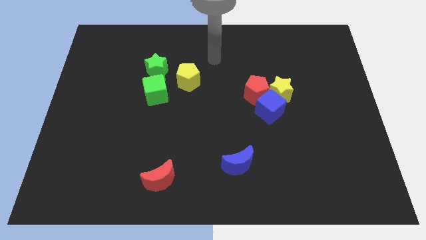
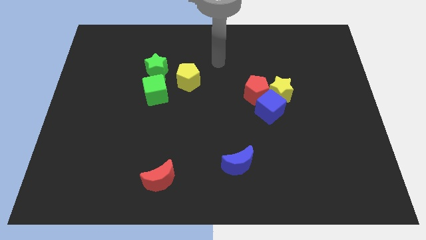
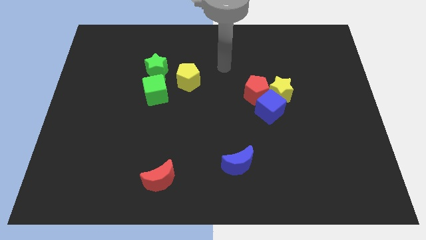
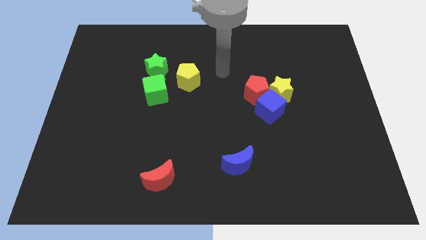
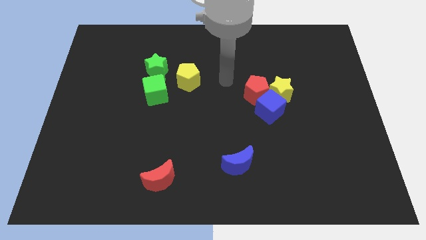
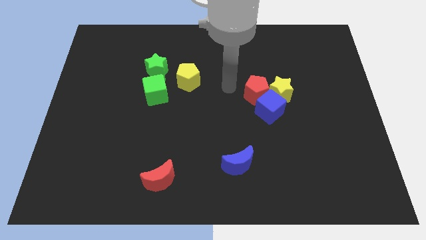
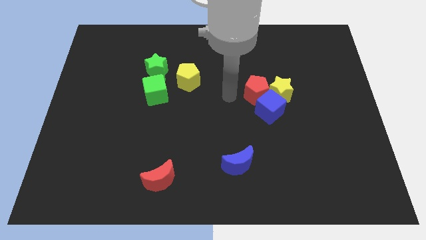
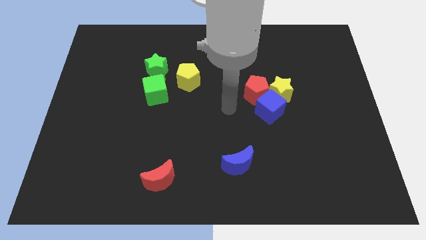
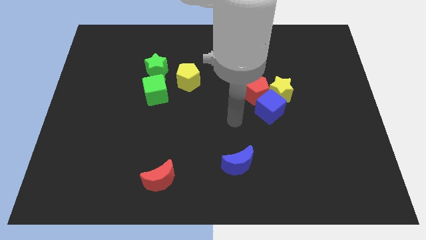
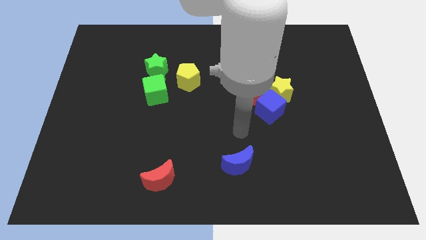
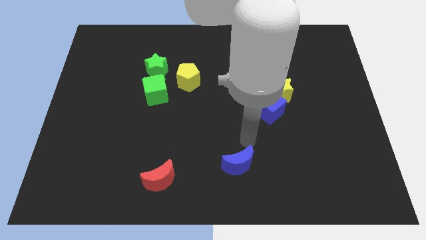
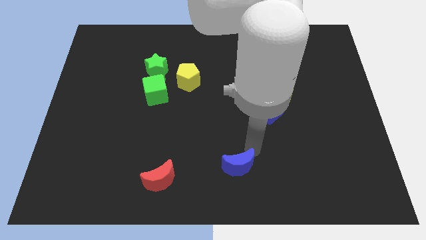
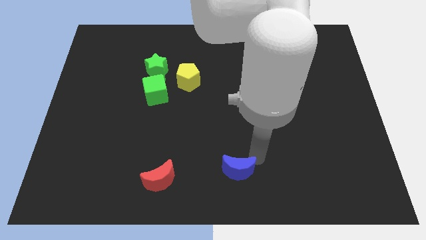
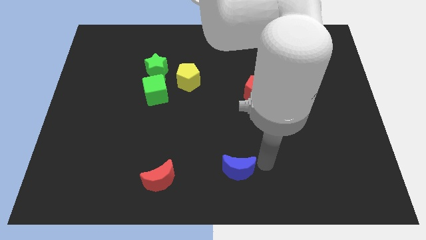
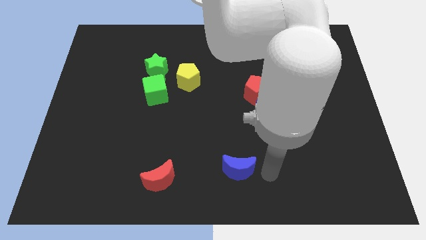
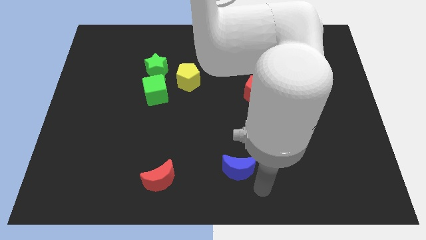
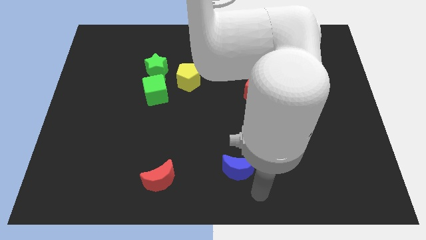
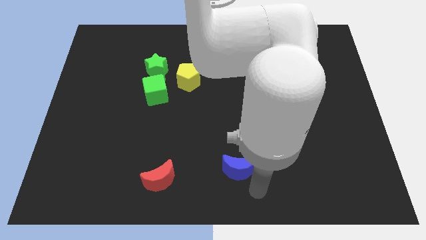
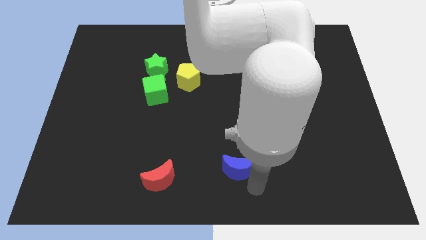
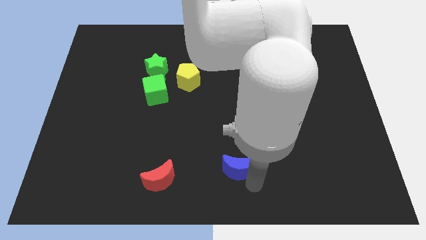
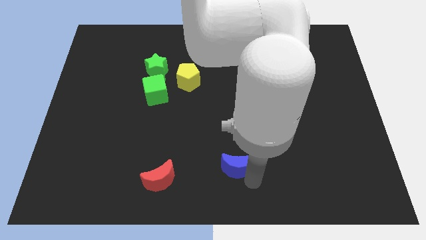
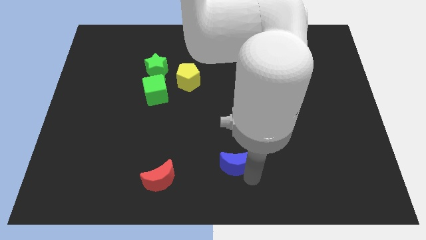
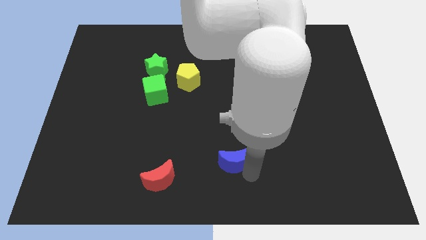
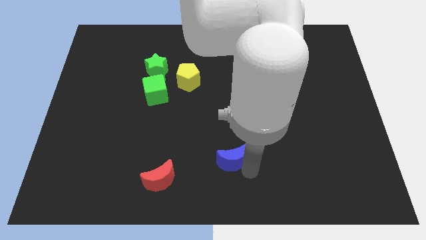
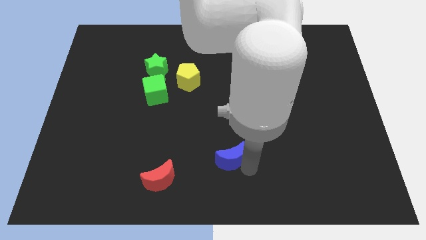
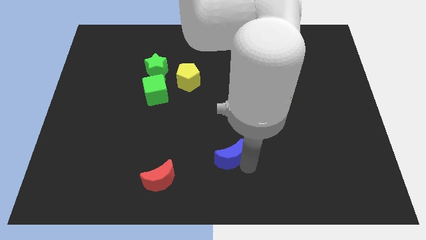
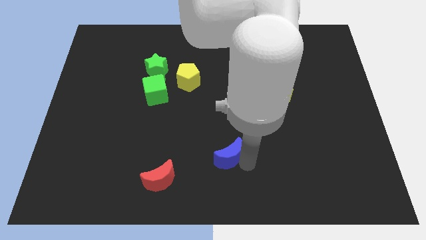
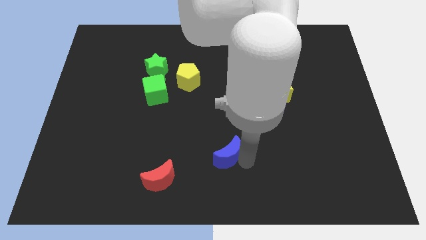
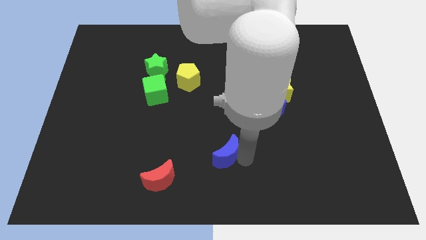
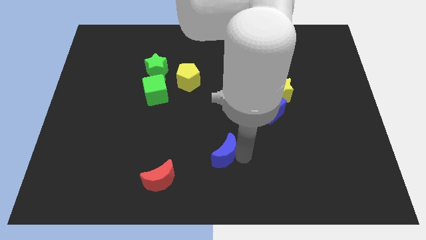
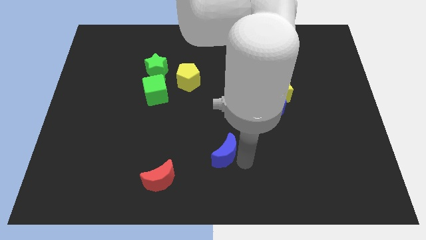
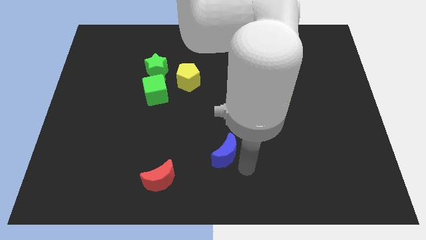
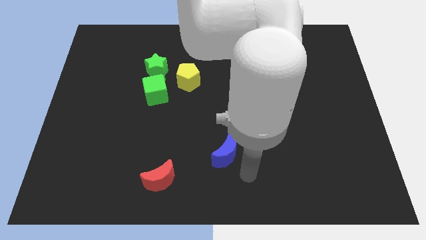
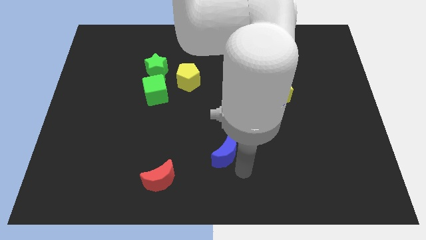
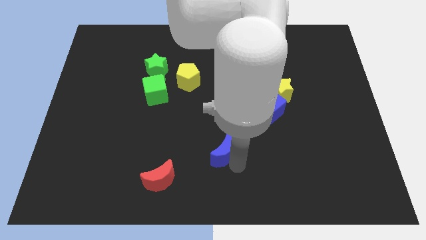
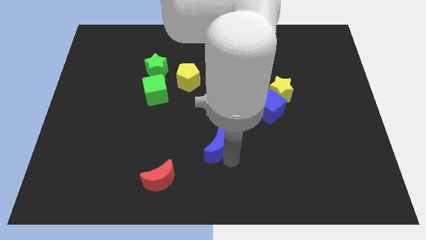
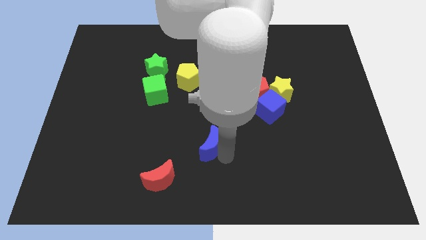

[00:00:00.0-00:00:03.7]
slide the blue moon upwards and then to the left a little

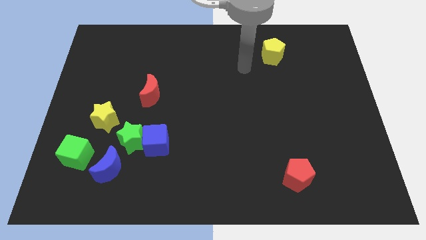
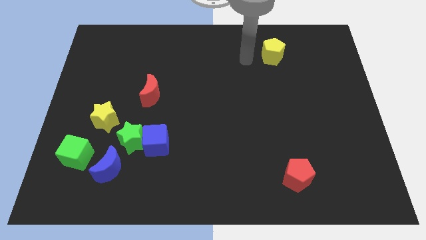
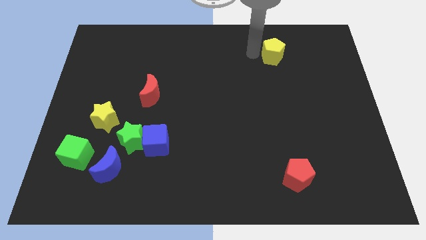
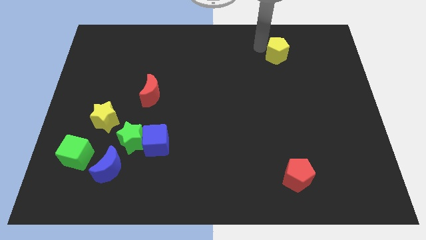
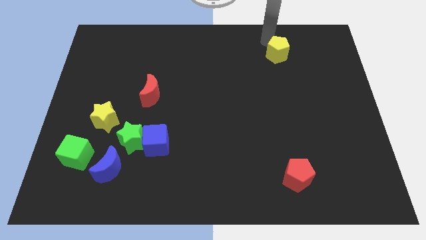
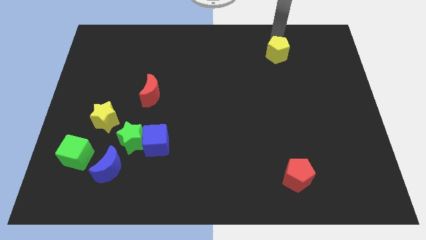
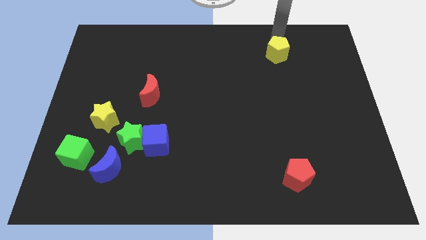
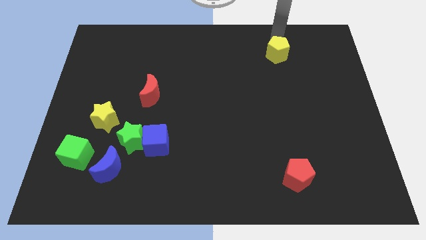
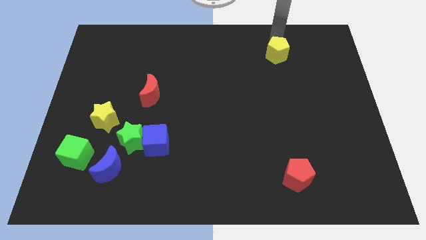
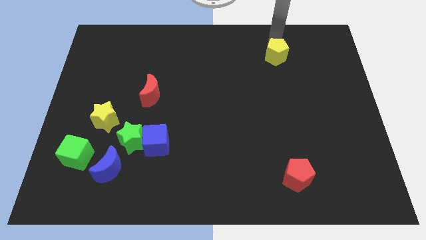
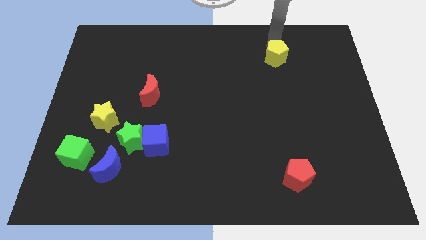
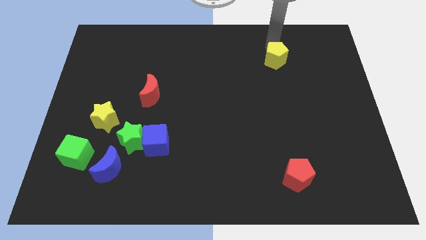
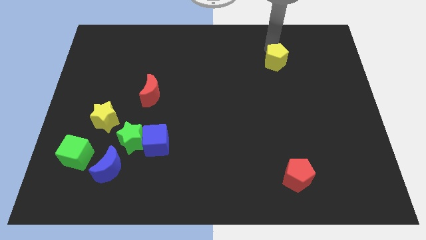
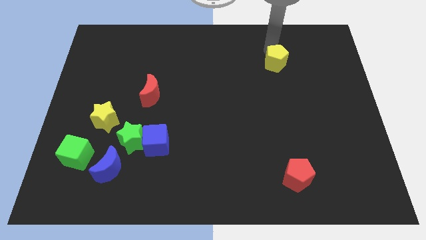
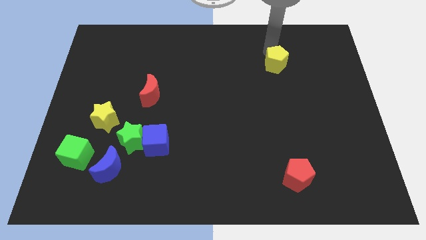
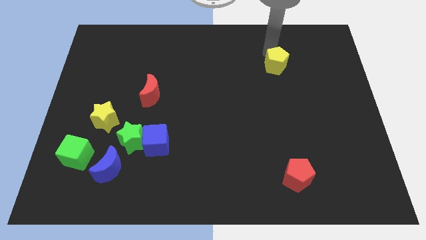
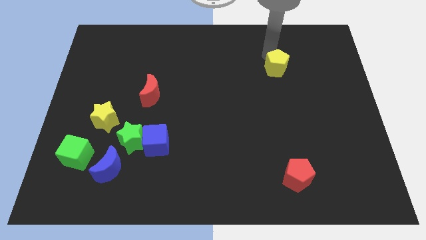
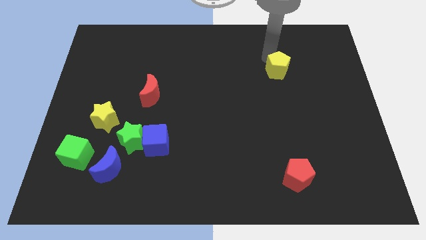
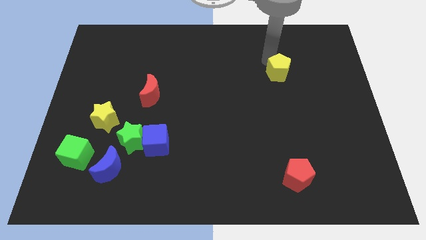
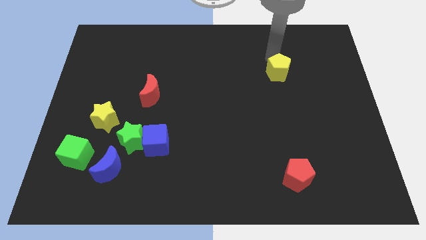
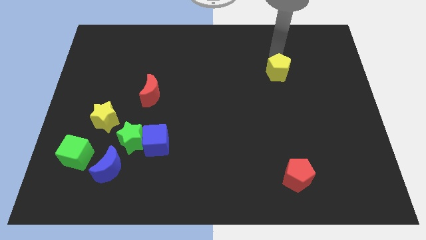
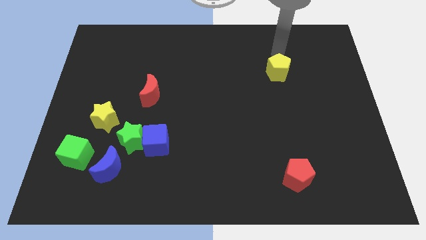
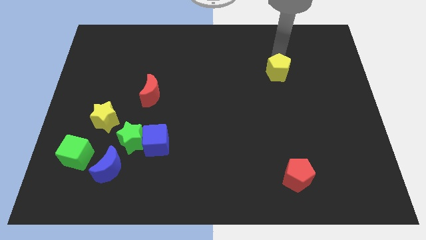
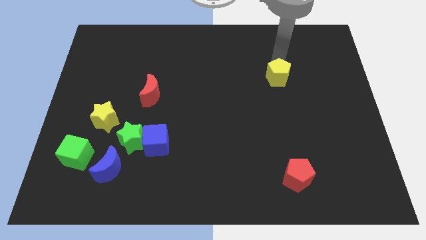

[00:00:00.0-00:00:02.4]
move the yellow pentagon downwards a little bit

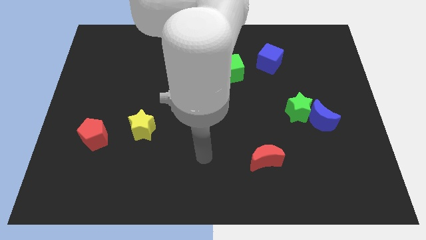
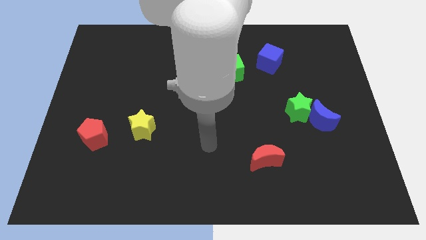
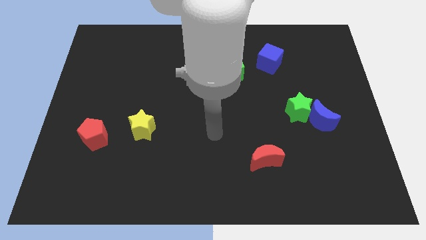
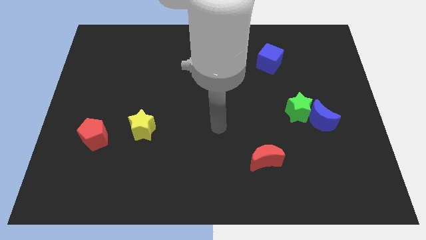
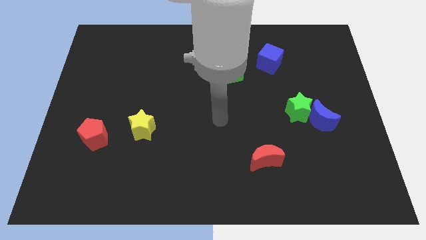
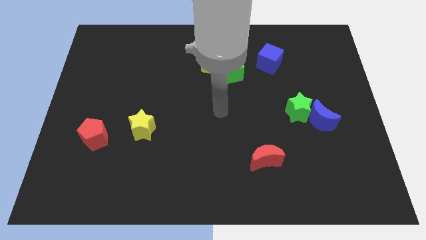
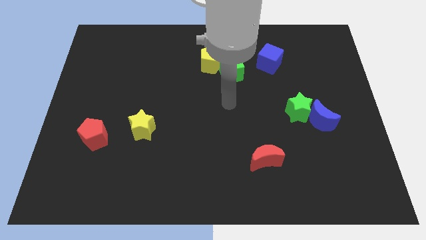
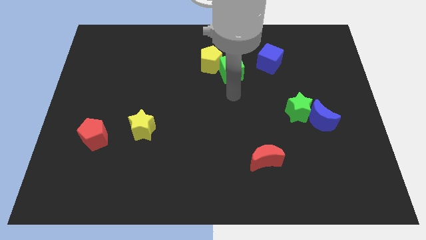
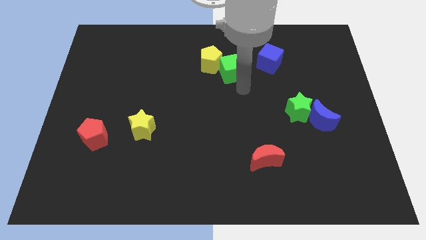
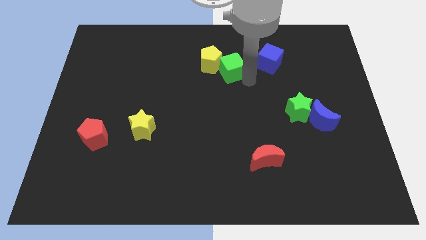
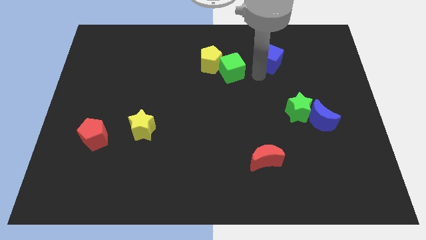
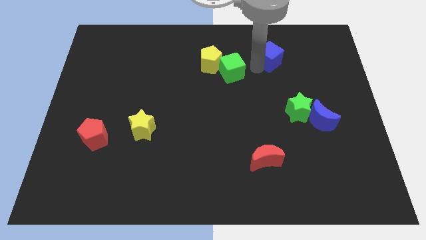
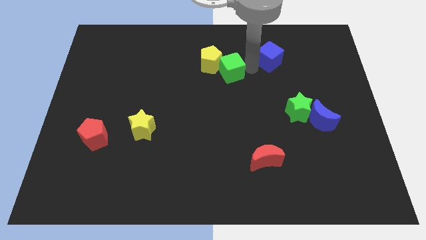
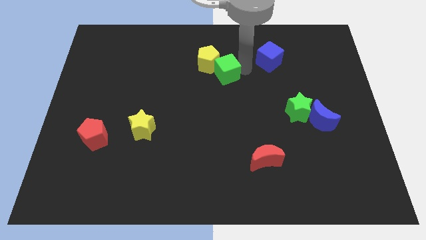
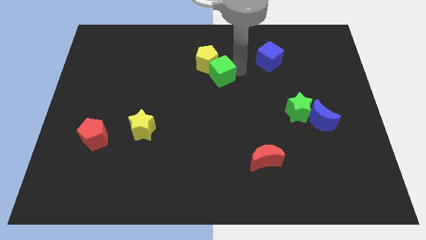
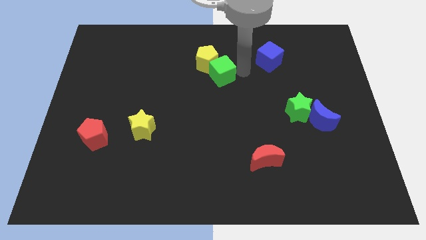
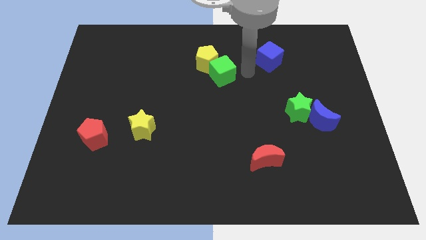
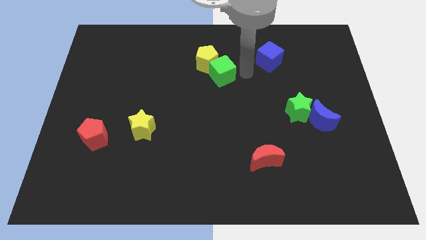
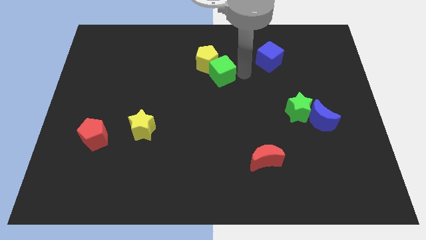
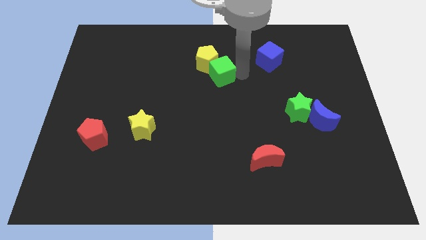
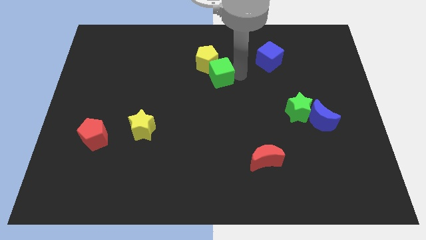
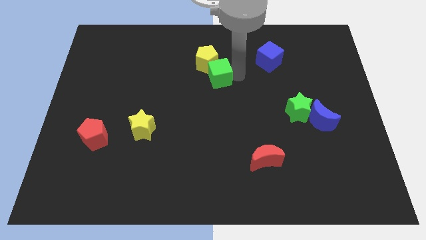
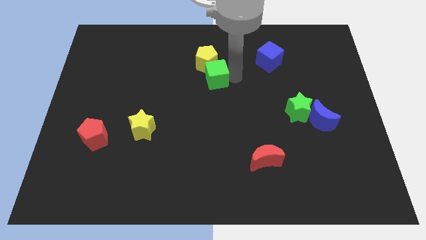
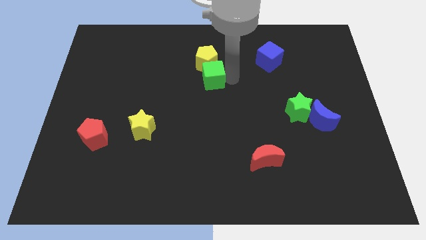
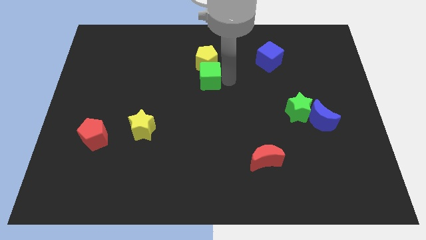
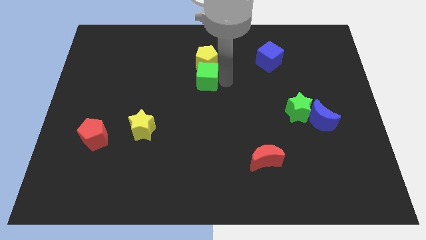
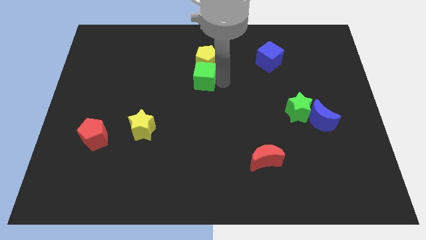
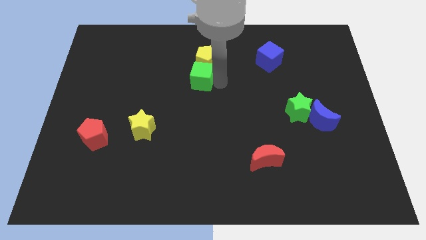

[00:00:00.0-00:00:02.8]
move the green cube to the left a bit
